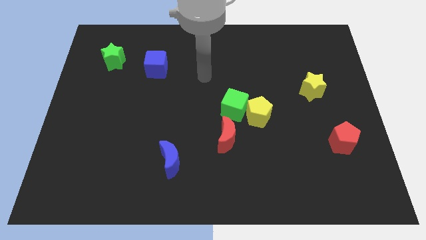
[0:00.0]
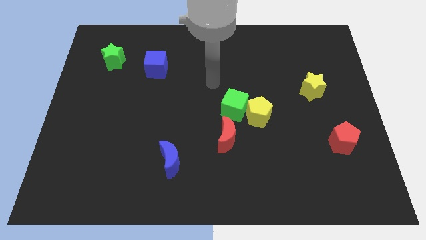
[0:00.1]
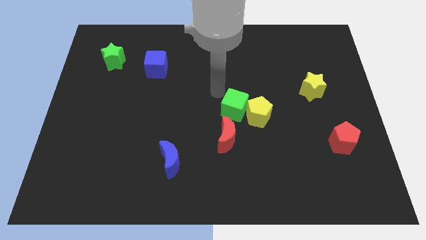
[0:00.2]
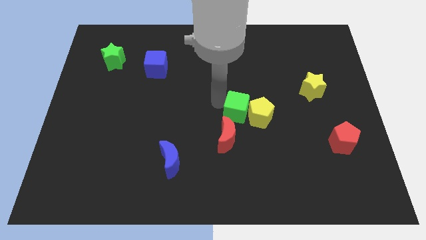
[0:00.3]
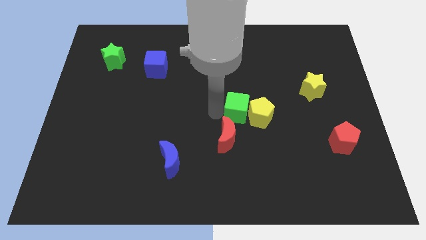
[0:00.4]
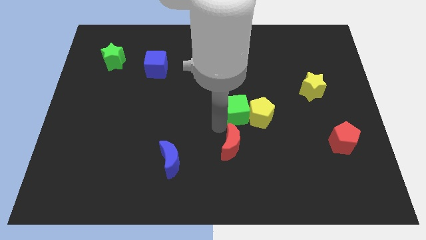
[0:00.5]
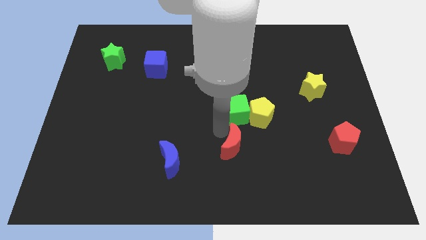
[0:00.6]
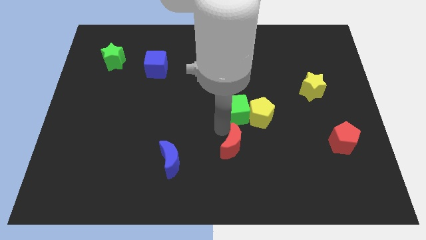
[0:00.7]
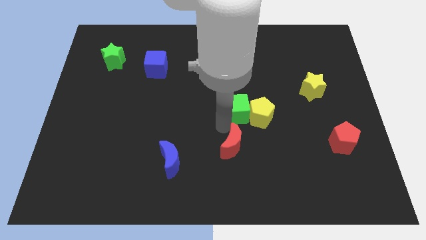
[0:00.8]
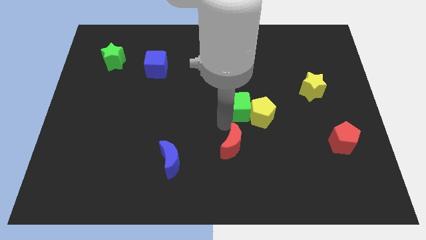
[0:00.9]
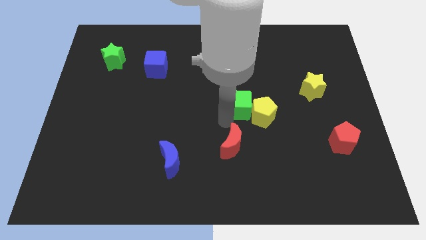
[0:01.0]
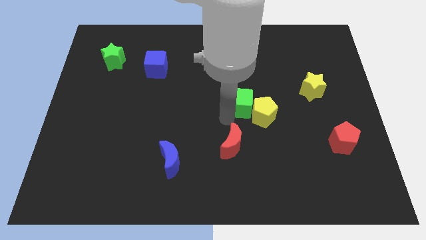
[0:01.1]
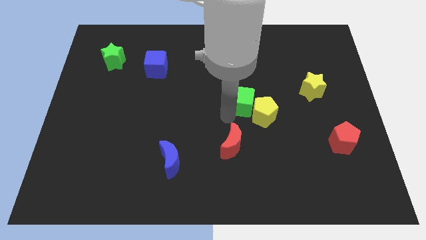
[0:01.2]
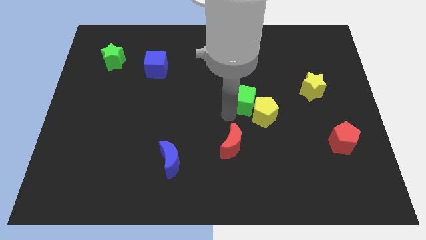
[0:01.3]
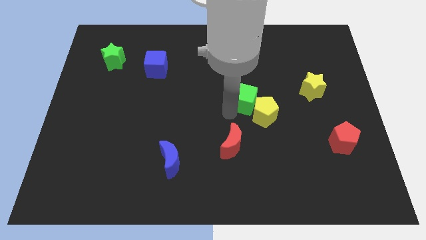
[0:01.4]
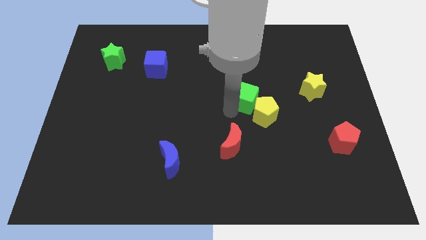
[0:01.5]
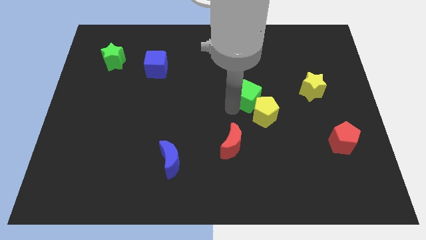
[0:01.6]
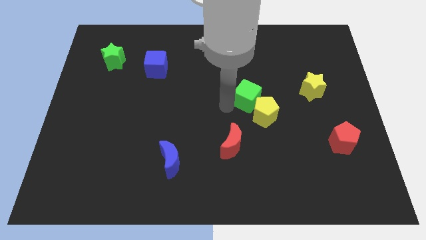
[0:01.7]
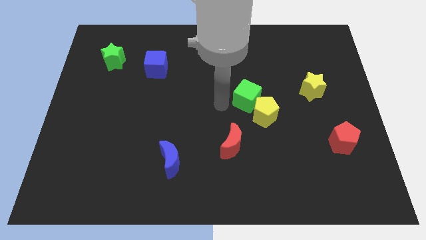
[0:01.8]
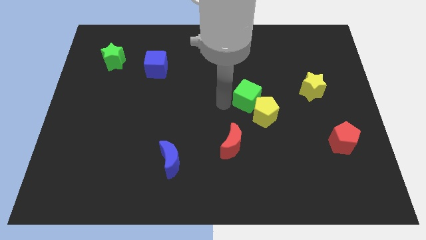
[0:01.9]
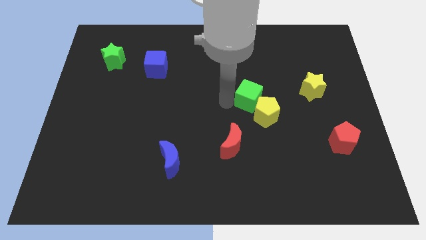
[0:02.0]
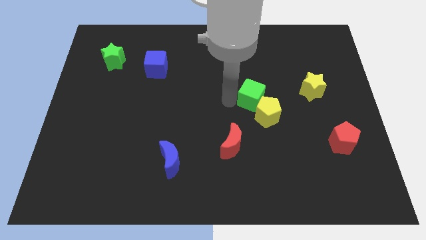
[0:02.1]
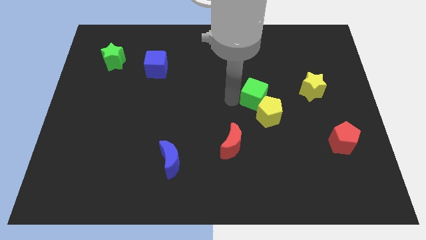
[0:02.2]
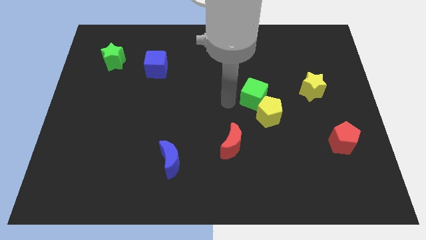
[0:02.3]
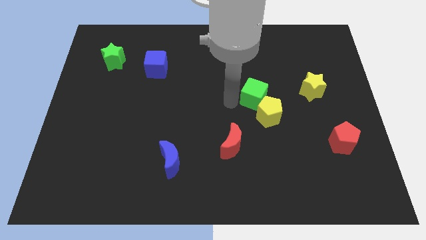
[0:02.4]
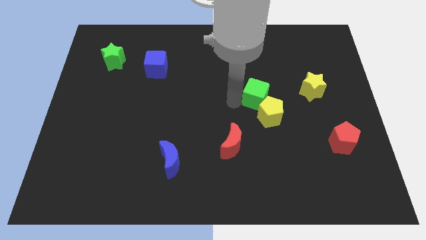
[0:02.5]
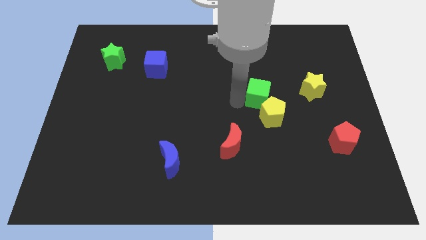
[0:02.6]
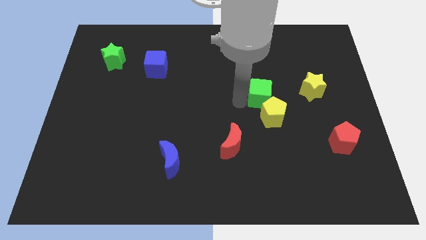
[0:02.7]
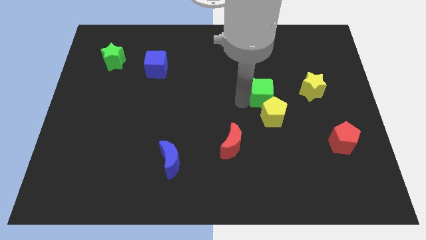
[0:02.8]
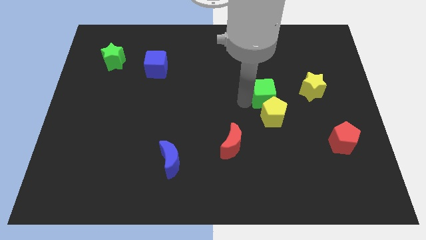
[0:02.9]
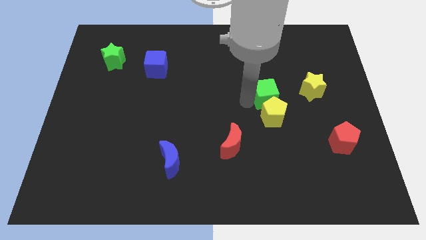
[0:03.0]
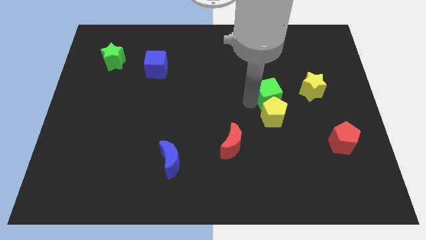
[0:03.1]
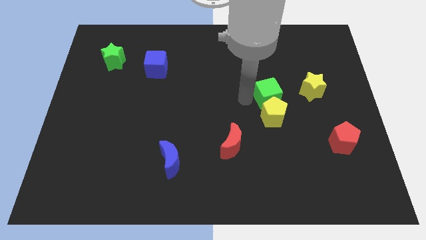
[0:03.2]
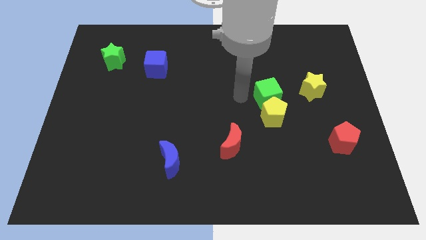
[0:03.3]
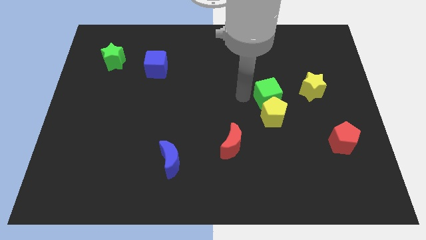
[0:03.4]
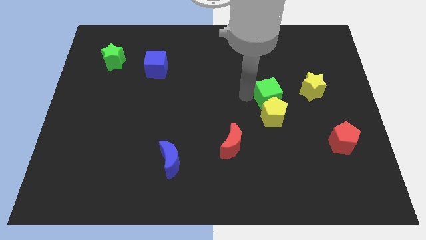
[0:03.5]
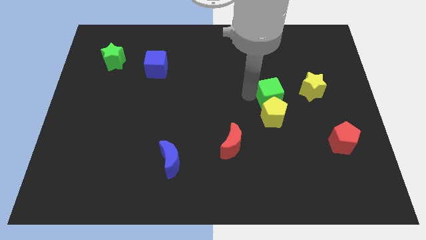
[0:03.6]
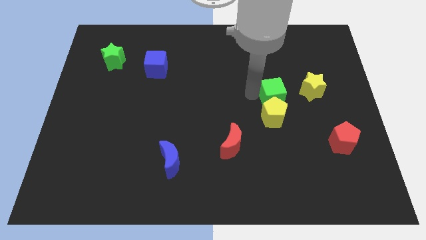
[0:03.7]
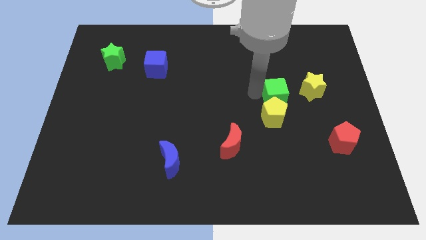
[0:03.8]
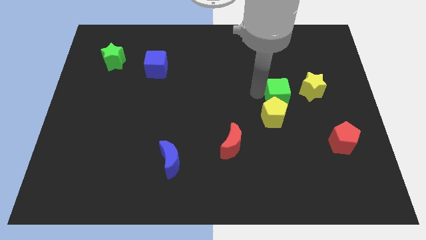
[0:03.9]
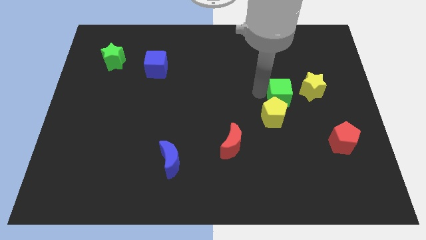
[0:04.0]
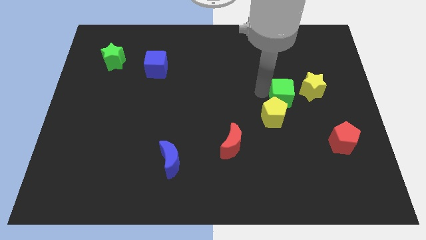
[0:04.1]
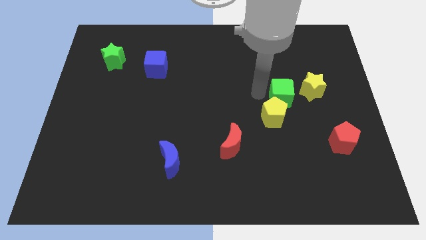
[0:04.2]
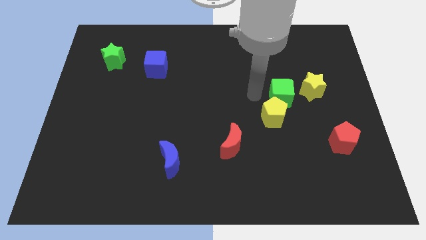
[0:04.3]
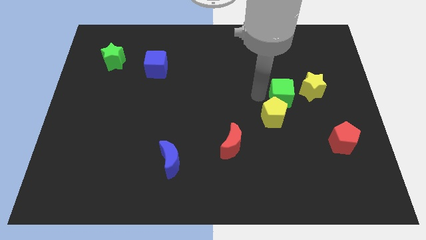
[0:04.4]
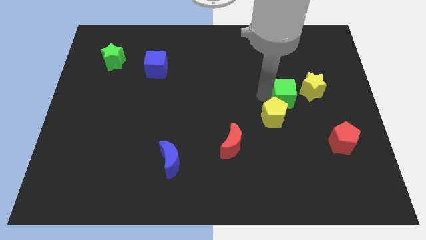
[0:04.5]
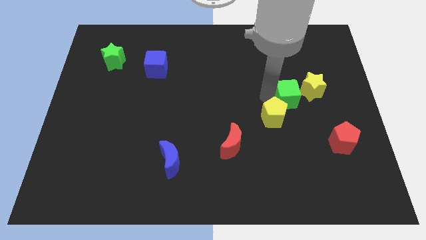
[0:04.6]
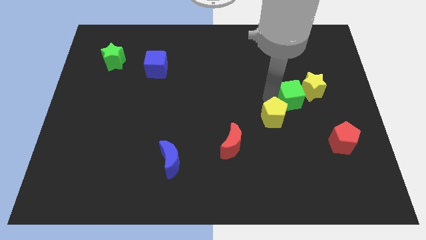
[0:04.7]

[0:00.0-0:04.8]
push the green cube towards the yellow star

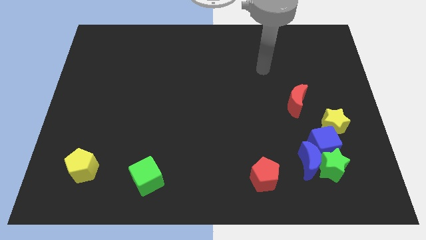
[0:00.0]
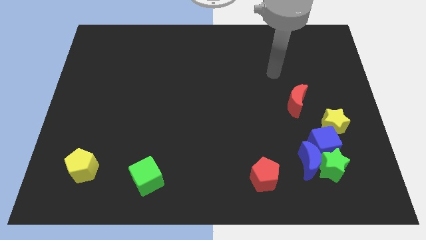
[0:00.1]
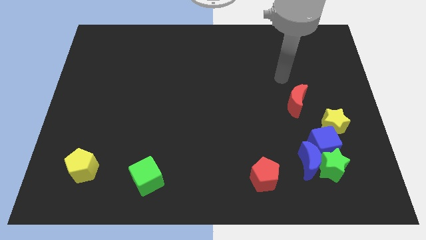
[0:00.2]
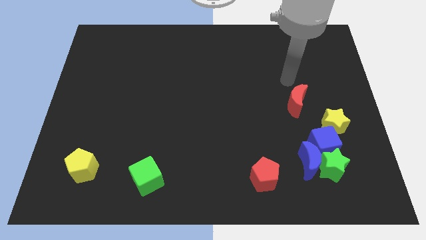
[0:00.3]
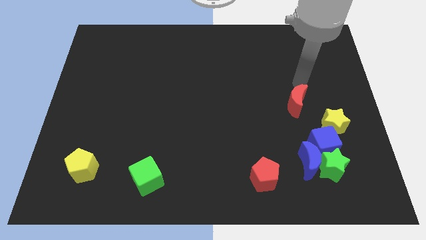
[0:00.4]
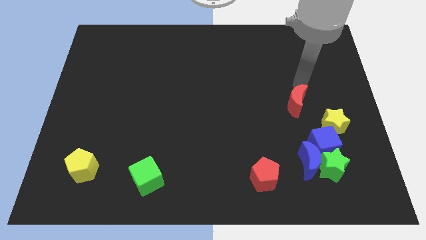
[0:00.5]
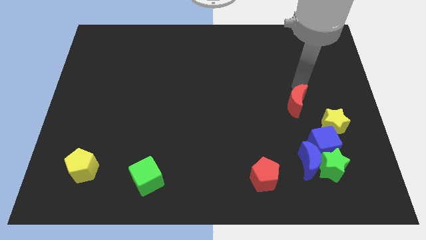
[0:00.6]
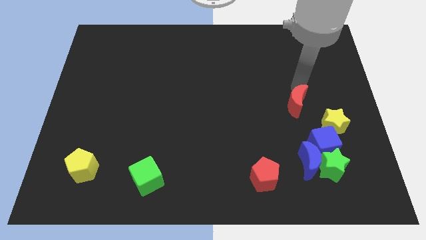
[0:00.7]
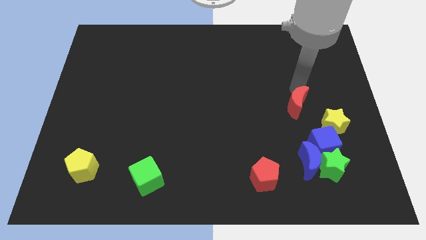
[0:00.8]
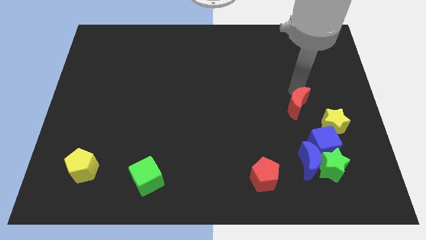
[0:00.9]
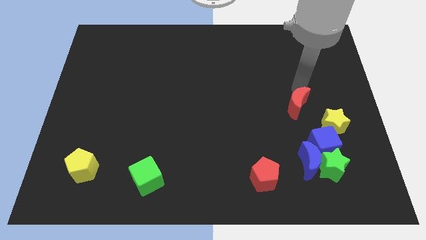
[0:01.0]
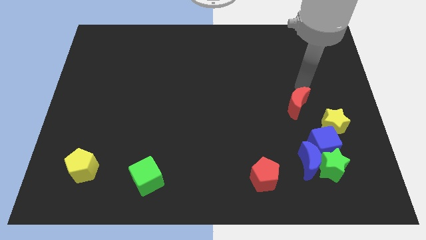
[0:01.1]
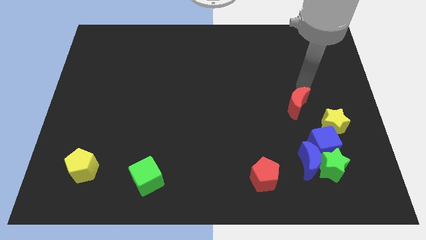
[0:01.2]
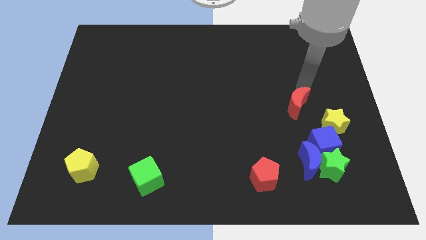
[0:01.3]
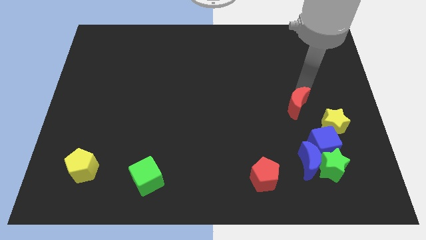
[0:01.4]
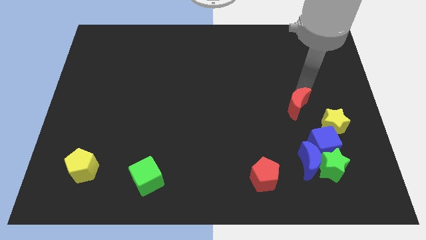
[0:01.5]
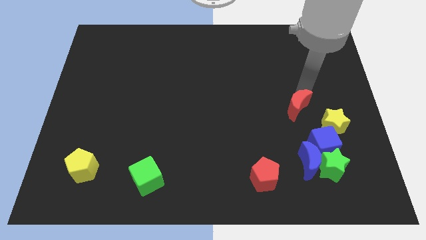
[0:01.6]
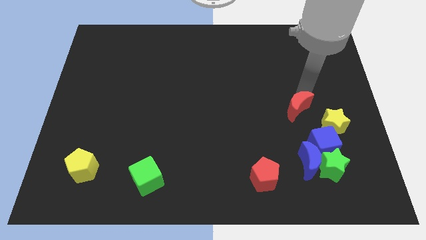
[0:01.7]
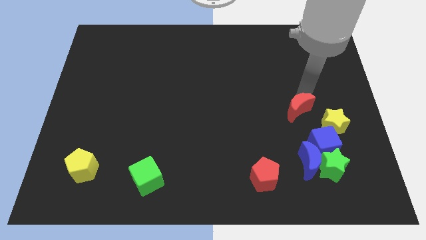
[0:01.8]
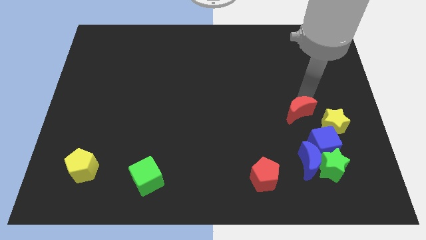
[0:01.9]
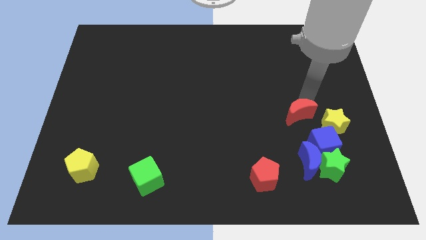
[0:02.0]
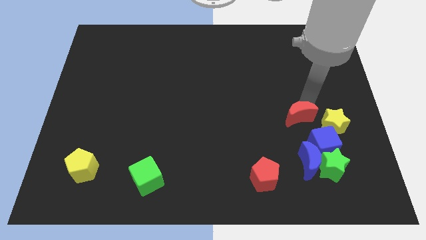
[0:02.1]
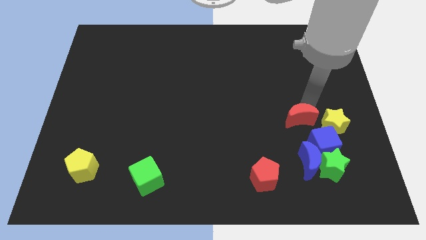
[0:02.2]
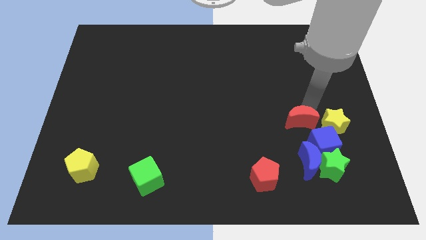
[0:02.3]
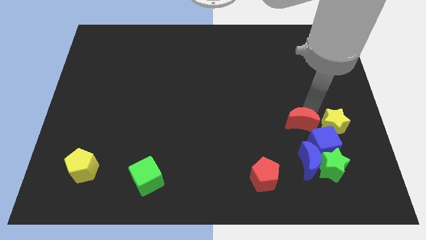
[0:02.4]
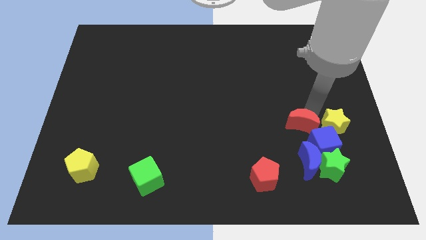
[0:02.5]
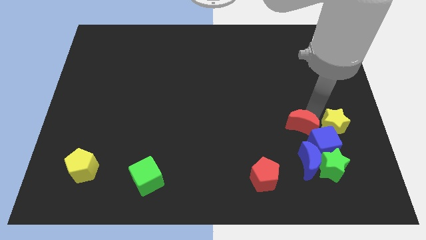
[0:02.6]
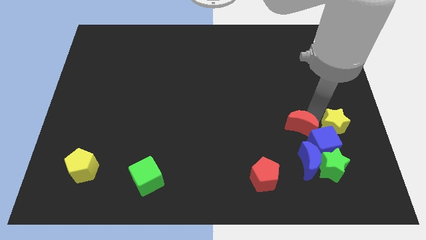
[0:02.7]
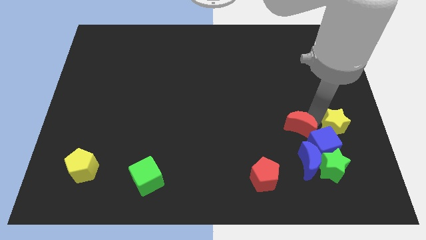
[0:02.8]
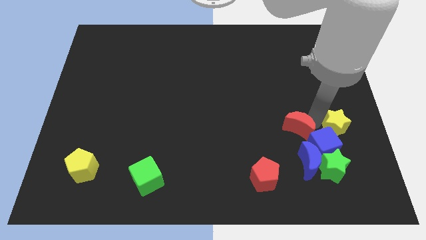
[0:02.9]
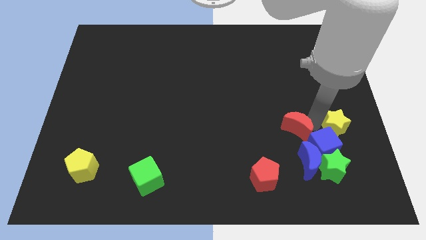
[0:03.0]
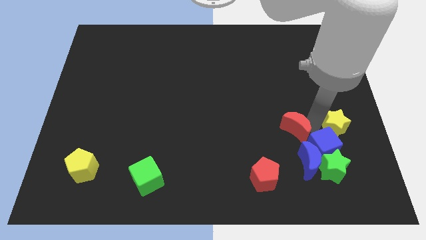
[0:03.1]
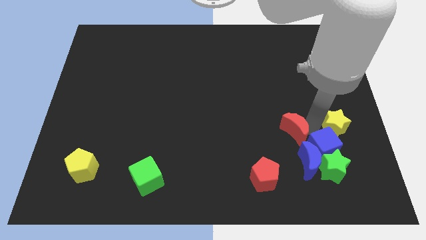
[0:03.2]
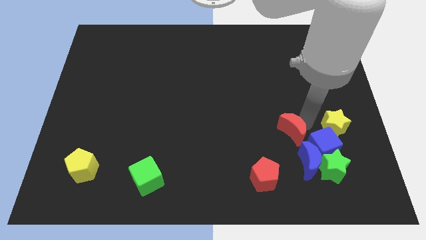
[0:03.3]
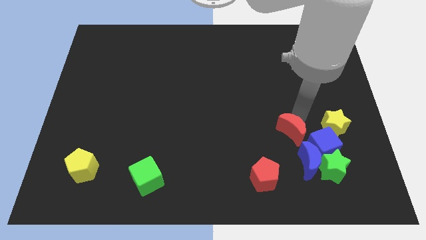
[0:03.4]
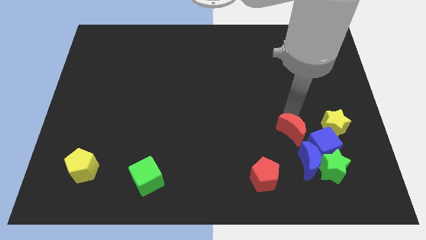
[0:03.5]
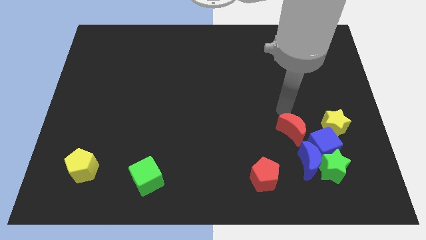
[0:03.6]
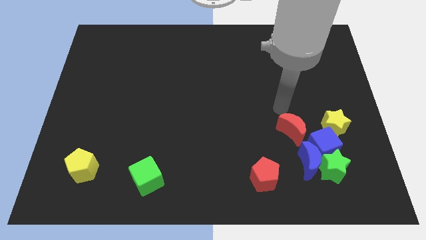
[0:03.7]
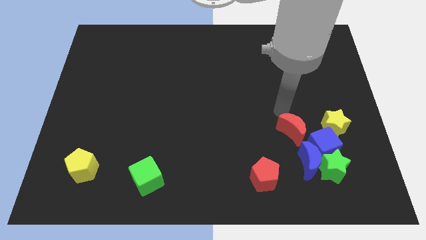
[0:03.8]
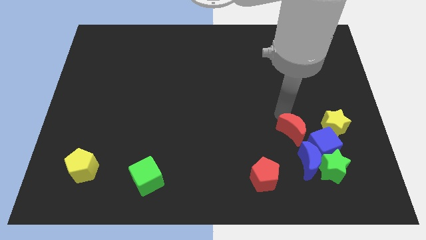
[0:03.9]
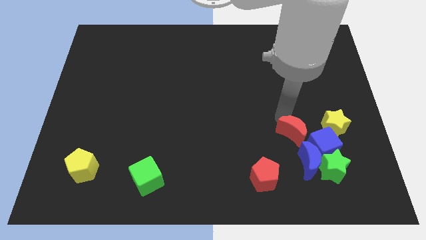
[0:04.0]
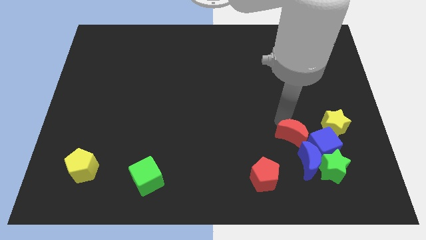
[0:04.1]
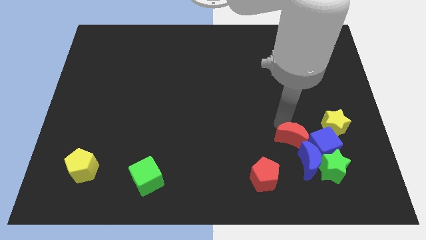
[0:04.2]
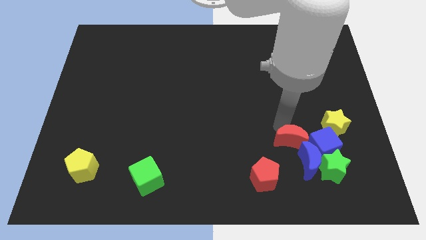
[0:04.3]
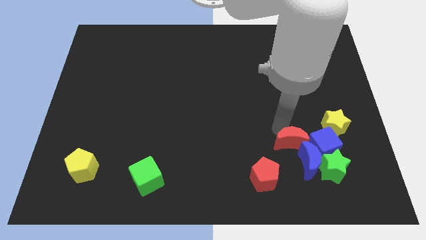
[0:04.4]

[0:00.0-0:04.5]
put the red moon next to the blue moon
